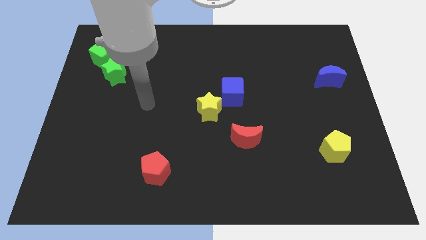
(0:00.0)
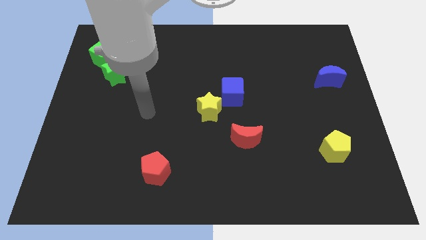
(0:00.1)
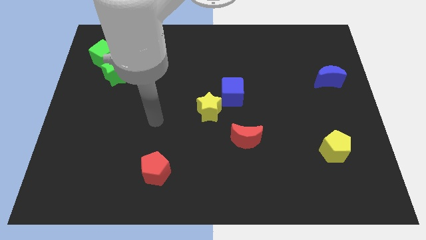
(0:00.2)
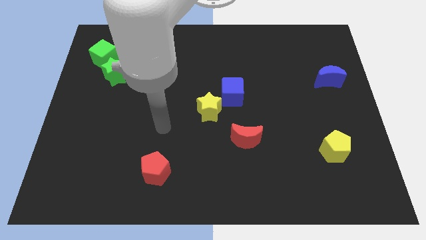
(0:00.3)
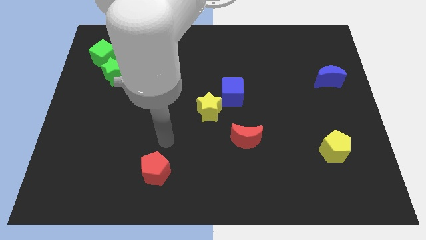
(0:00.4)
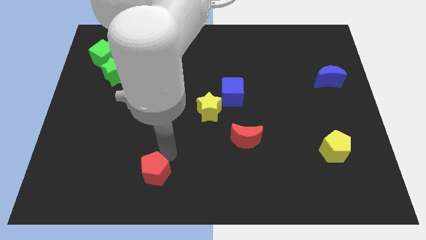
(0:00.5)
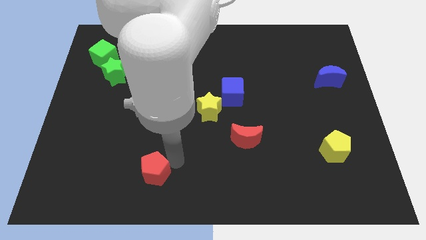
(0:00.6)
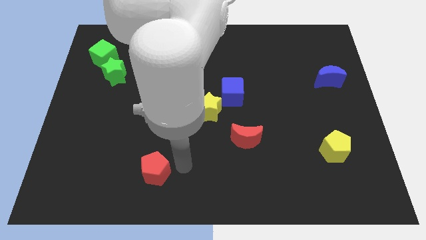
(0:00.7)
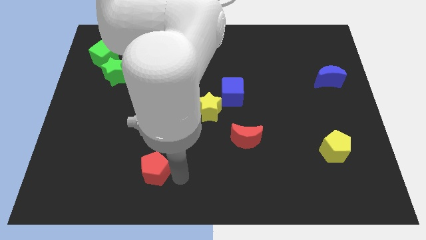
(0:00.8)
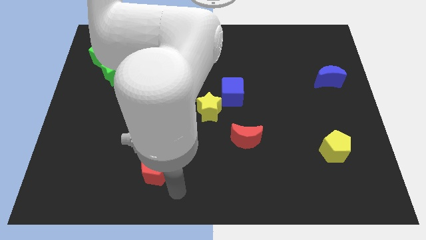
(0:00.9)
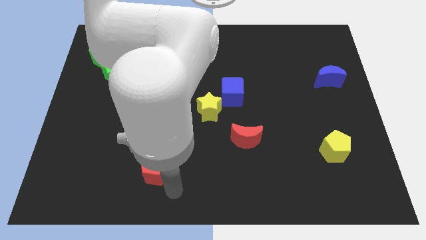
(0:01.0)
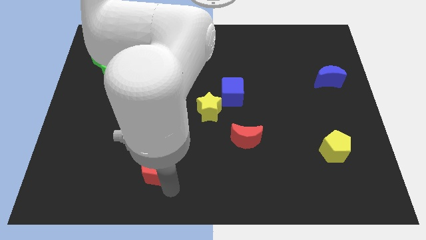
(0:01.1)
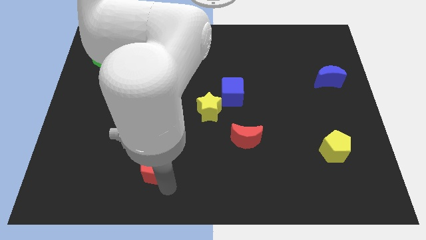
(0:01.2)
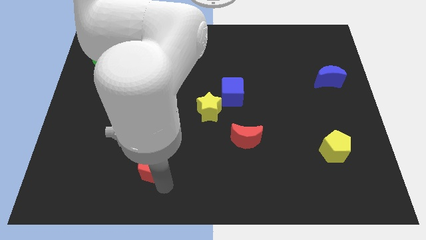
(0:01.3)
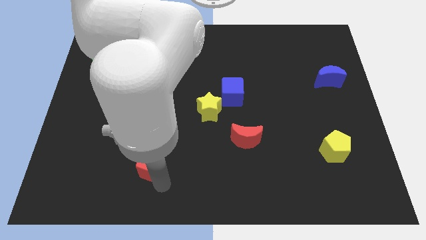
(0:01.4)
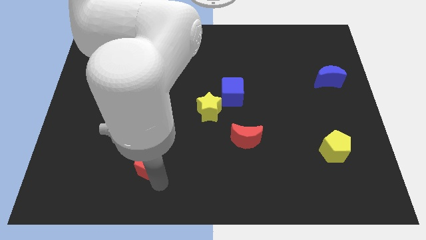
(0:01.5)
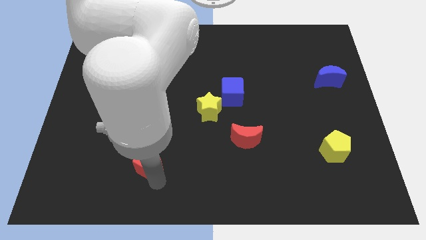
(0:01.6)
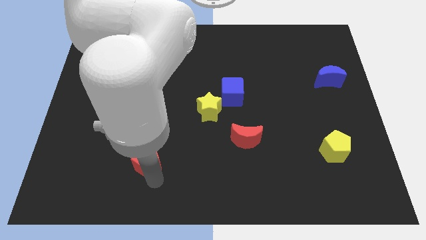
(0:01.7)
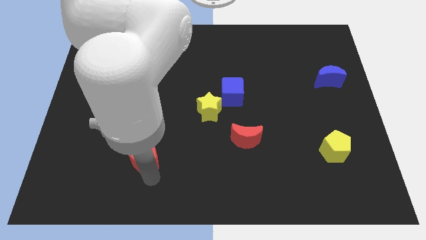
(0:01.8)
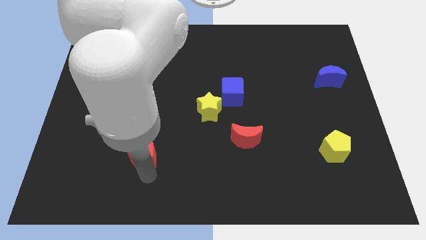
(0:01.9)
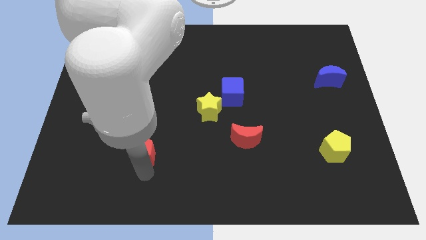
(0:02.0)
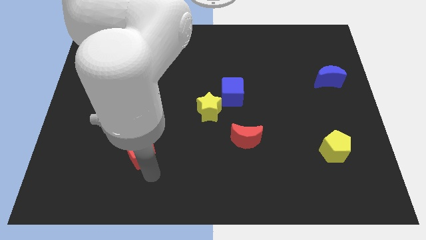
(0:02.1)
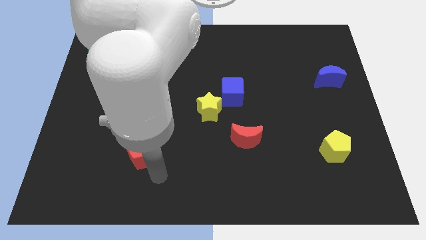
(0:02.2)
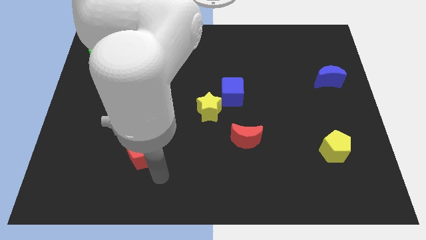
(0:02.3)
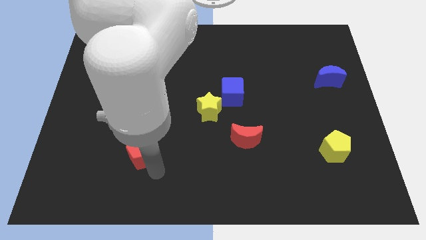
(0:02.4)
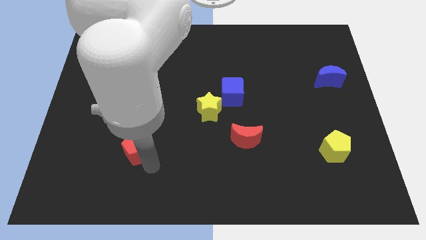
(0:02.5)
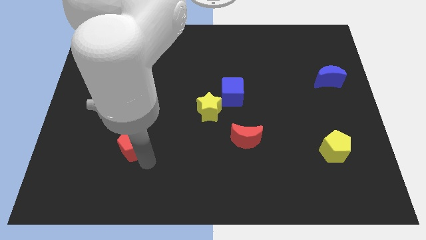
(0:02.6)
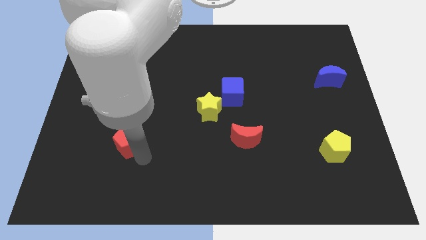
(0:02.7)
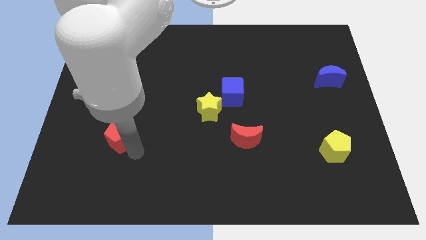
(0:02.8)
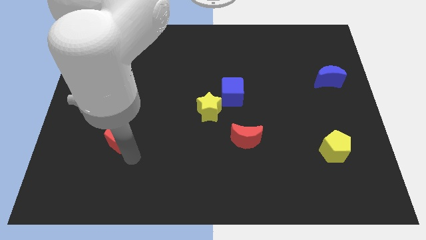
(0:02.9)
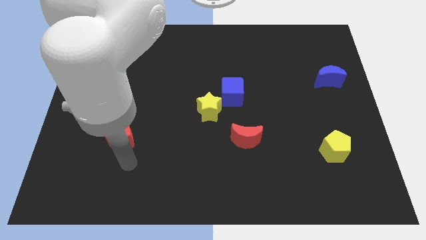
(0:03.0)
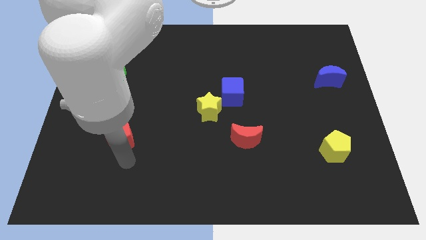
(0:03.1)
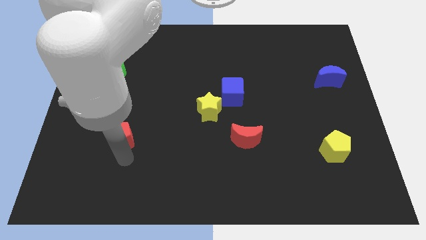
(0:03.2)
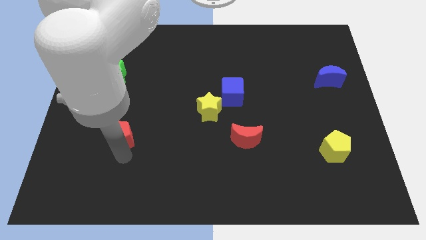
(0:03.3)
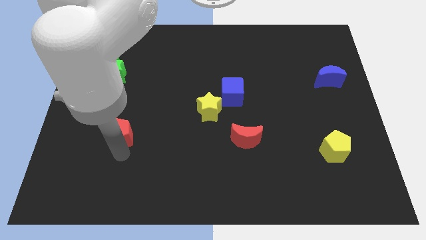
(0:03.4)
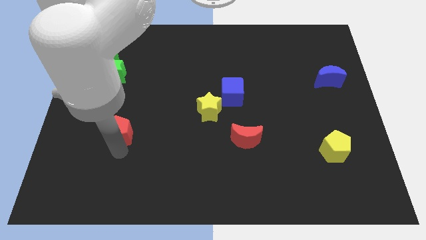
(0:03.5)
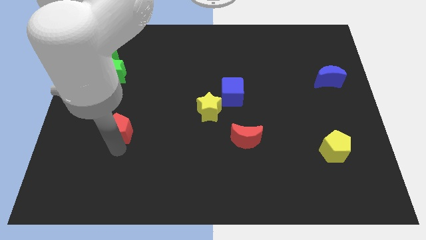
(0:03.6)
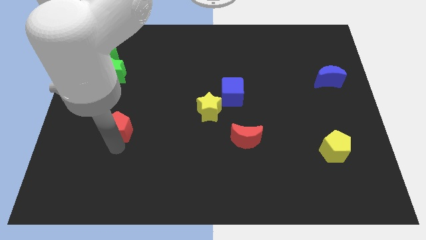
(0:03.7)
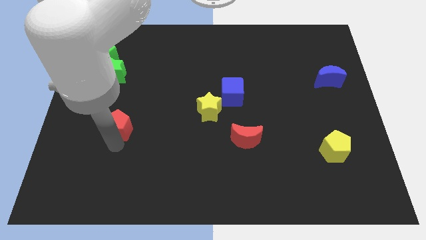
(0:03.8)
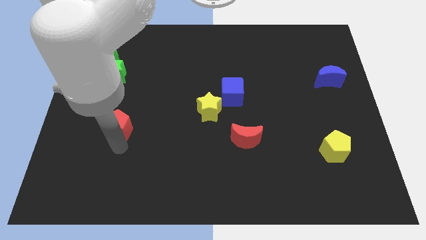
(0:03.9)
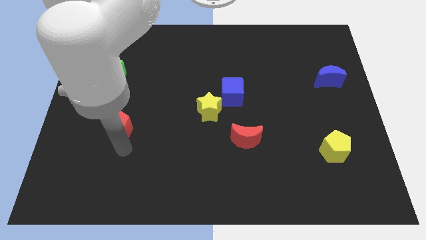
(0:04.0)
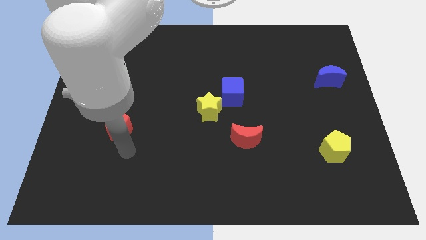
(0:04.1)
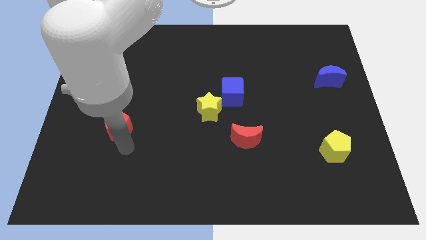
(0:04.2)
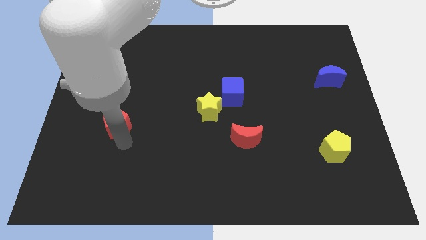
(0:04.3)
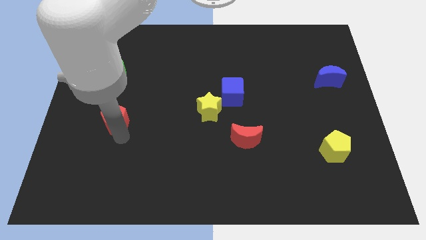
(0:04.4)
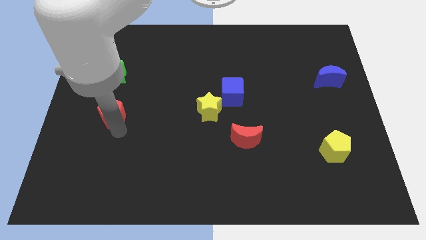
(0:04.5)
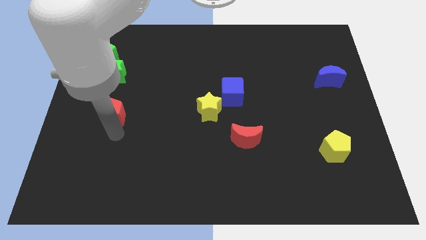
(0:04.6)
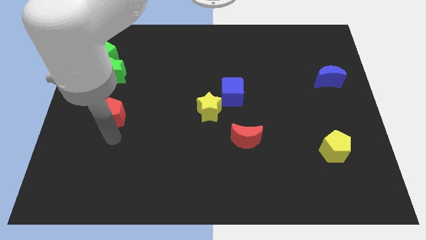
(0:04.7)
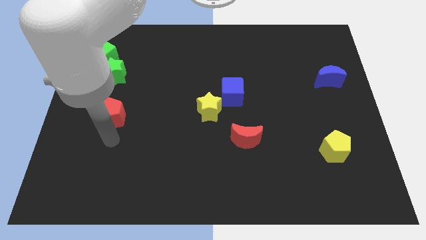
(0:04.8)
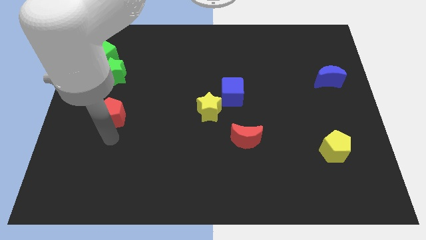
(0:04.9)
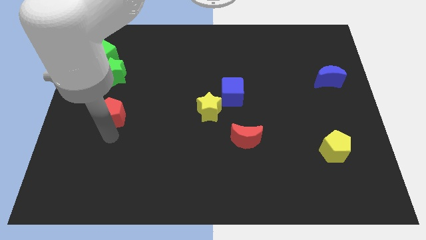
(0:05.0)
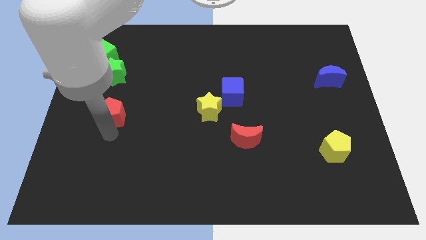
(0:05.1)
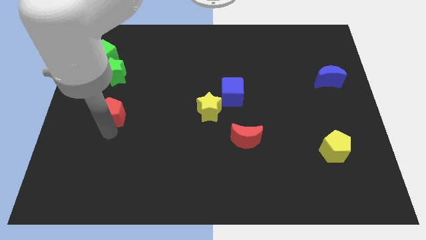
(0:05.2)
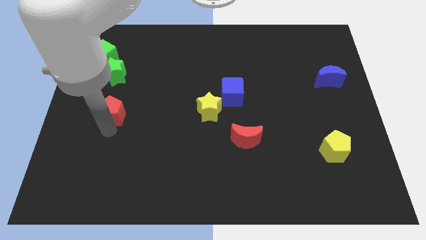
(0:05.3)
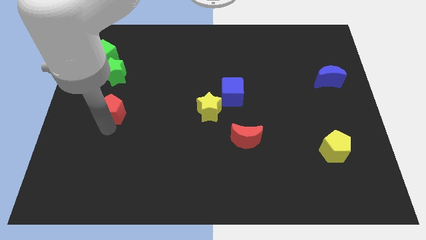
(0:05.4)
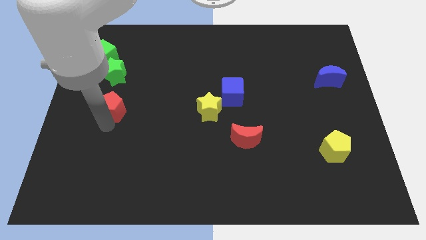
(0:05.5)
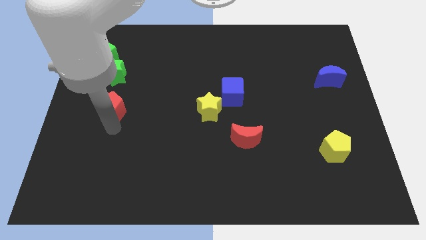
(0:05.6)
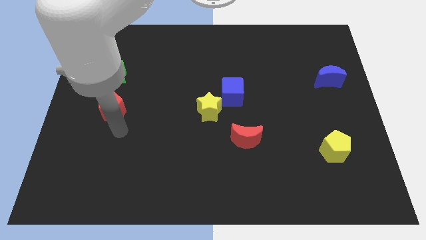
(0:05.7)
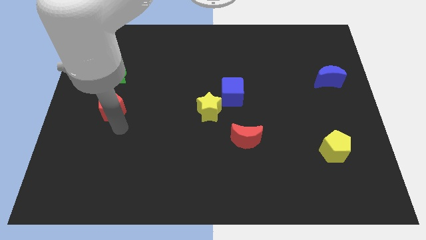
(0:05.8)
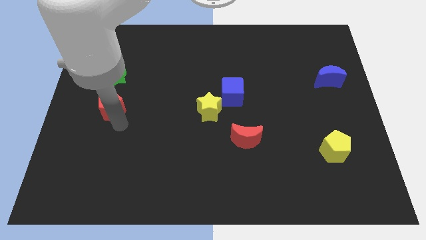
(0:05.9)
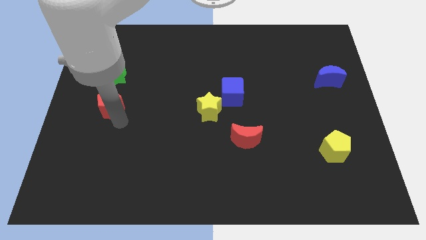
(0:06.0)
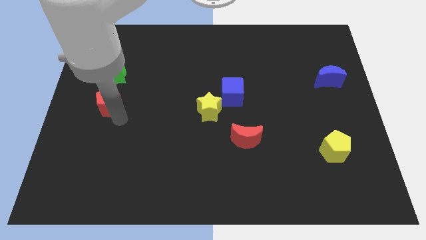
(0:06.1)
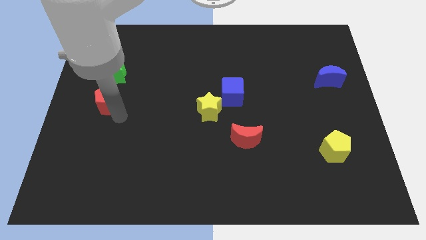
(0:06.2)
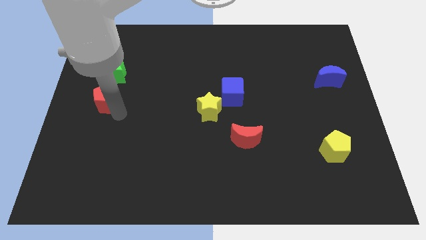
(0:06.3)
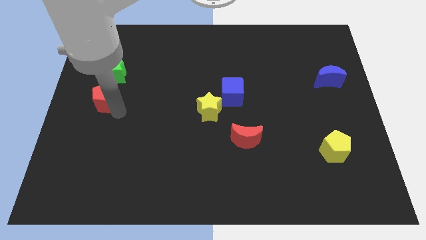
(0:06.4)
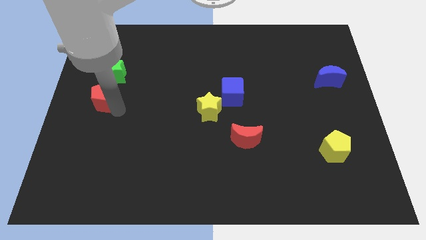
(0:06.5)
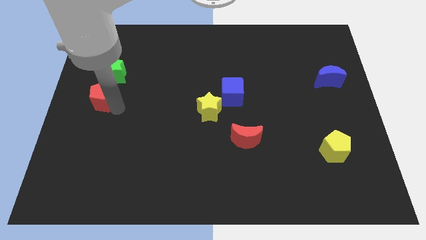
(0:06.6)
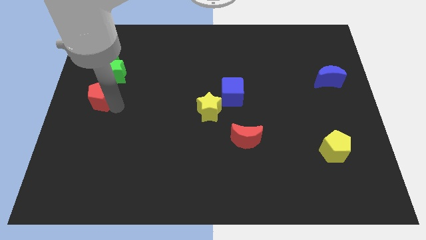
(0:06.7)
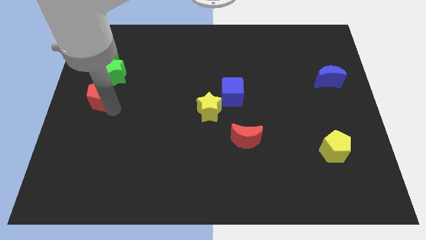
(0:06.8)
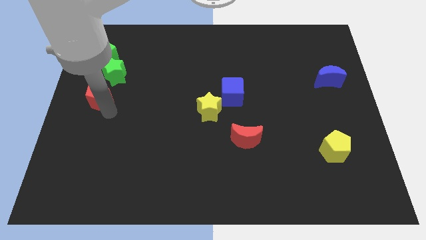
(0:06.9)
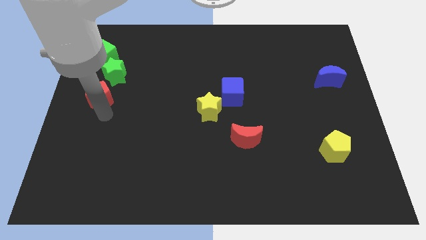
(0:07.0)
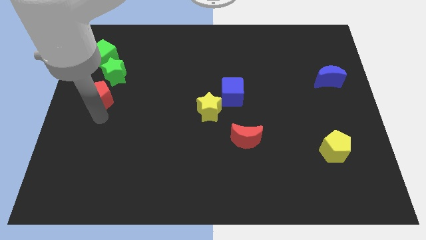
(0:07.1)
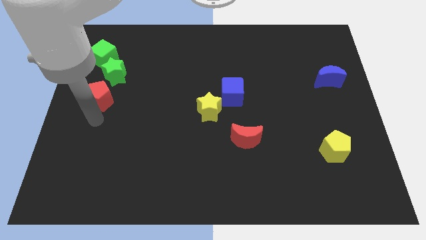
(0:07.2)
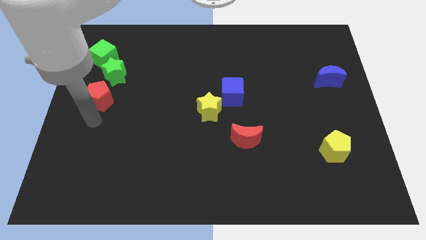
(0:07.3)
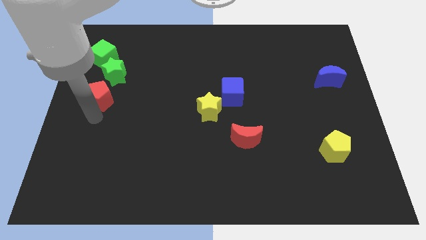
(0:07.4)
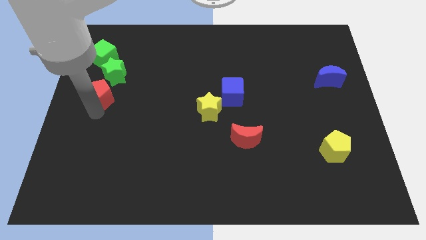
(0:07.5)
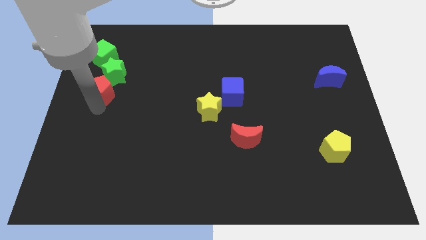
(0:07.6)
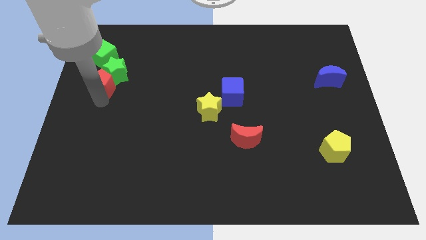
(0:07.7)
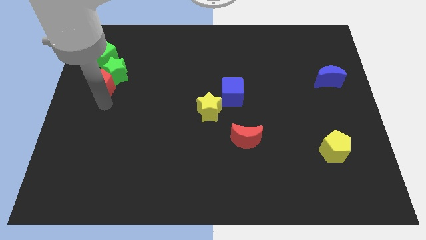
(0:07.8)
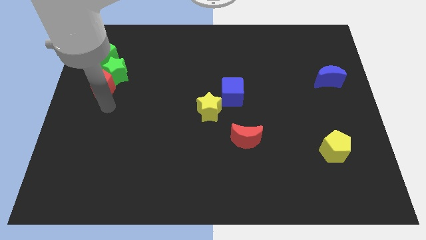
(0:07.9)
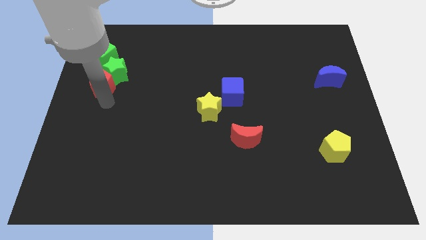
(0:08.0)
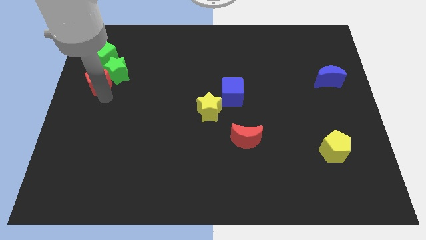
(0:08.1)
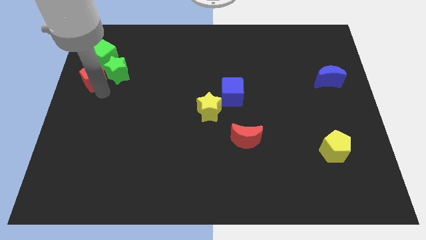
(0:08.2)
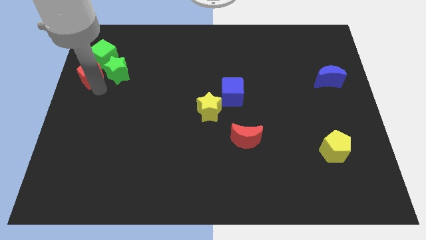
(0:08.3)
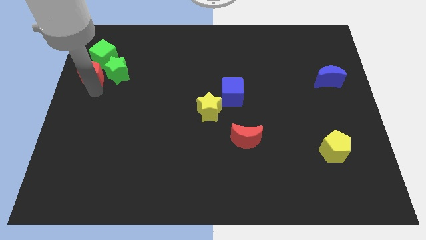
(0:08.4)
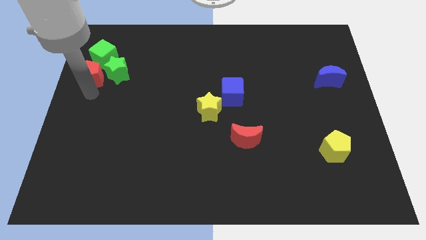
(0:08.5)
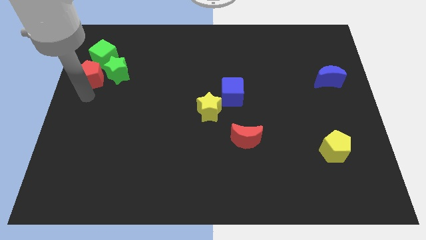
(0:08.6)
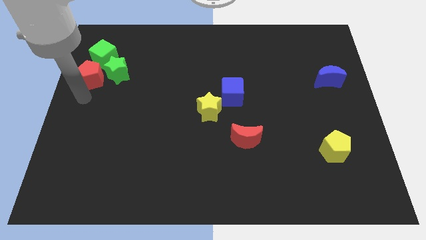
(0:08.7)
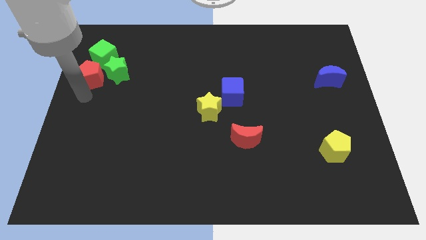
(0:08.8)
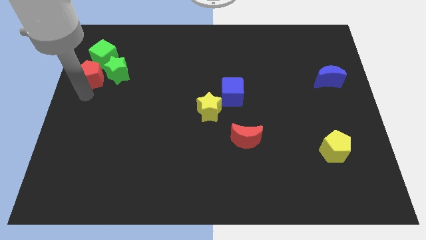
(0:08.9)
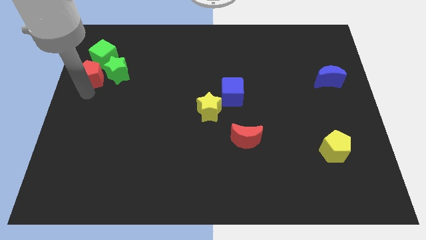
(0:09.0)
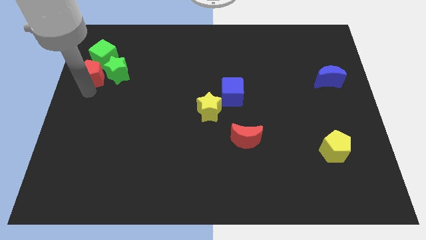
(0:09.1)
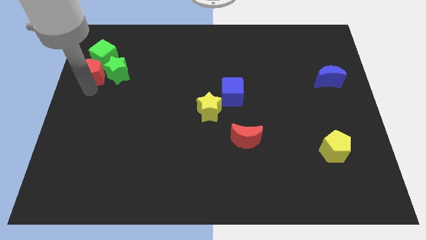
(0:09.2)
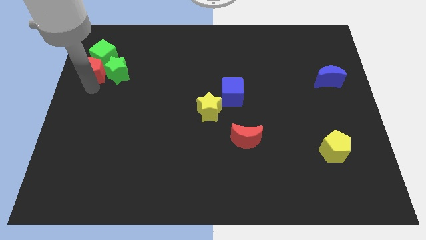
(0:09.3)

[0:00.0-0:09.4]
put the red pentagon to the green cube
